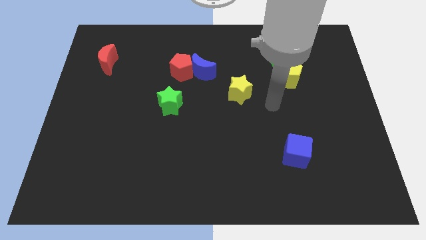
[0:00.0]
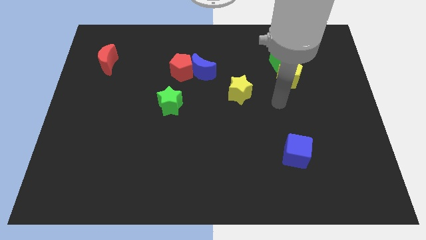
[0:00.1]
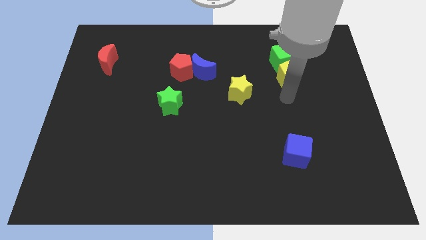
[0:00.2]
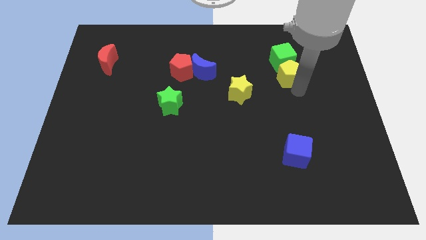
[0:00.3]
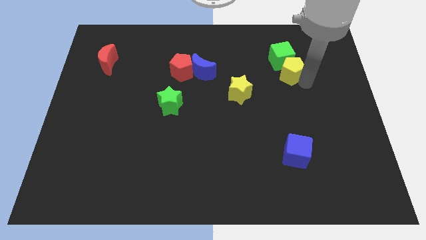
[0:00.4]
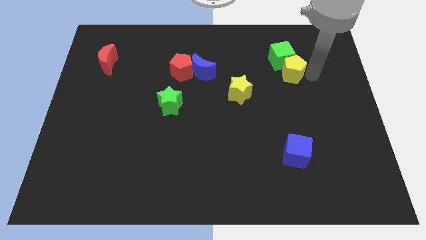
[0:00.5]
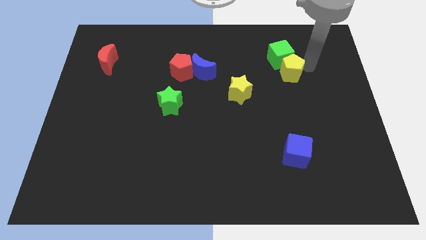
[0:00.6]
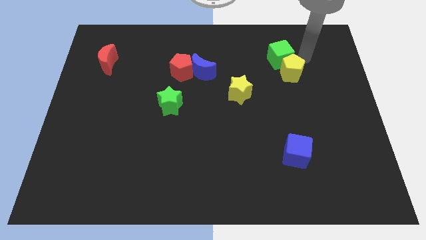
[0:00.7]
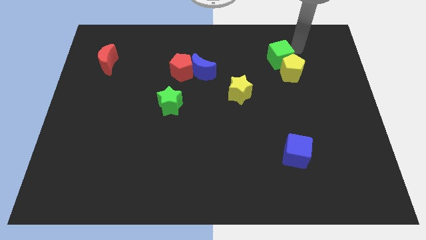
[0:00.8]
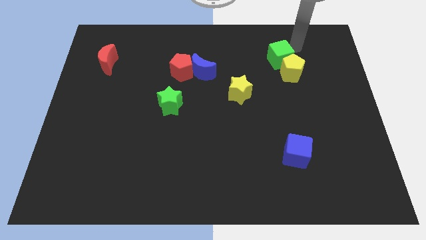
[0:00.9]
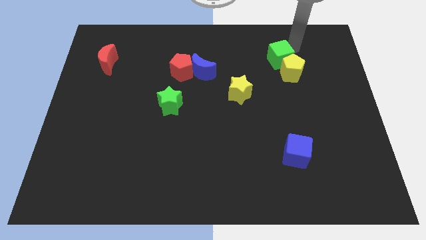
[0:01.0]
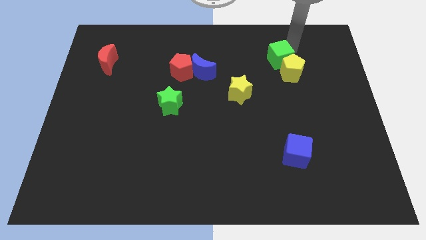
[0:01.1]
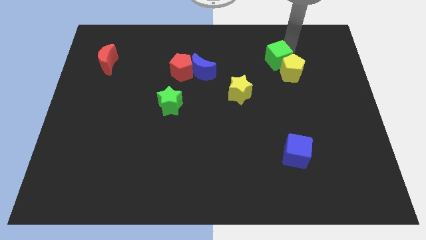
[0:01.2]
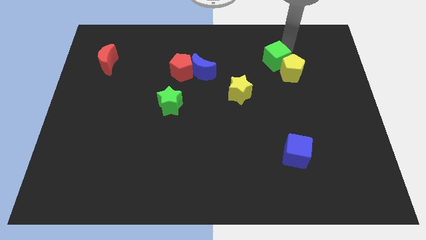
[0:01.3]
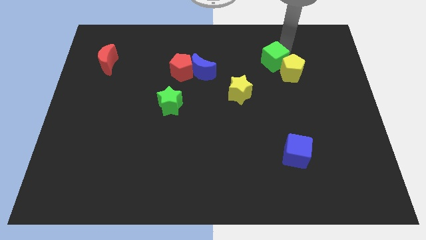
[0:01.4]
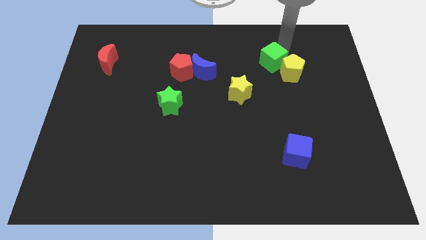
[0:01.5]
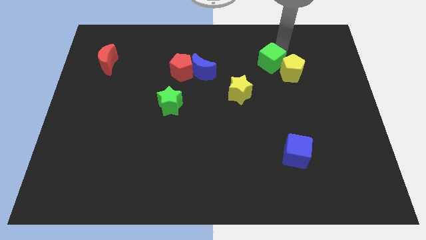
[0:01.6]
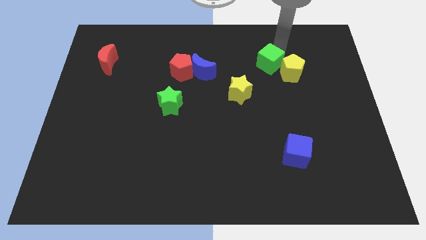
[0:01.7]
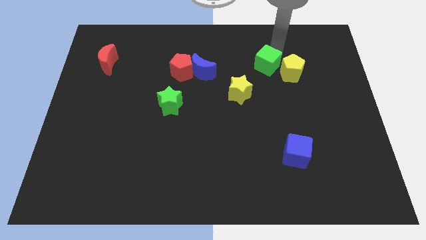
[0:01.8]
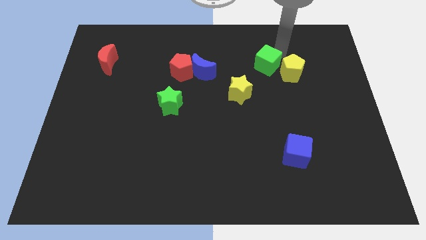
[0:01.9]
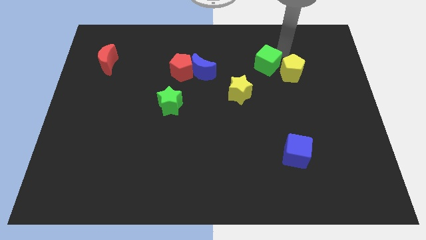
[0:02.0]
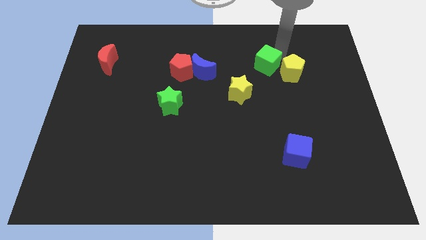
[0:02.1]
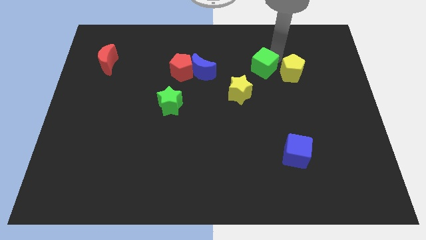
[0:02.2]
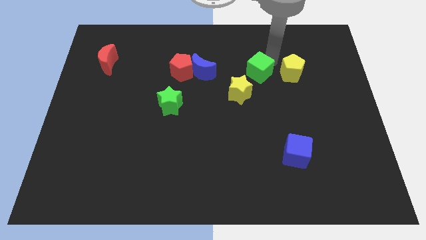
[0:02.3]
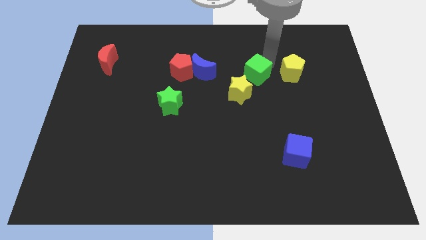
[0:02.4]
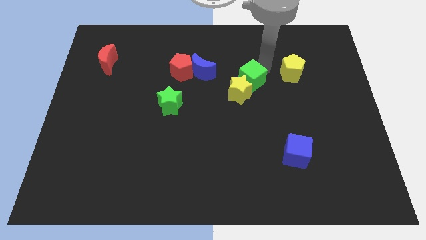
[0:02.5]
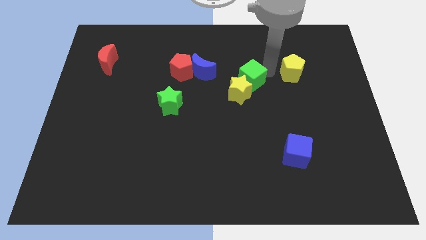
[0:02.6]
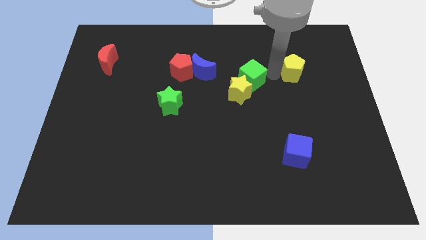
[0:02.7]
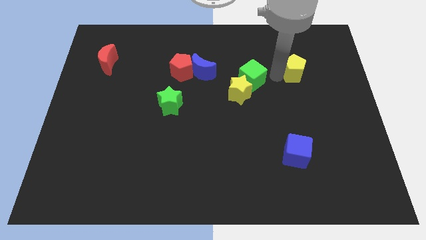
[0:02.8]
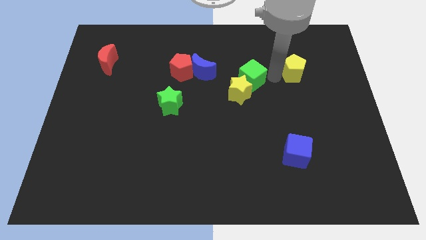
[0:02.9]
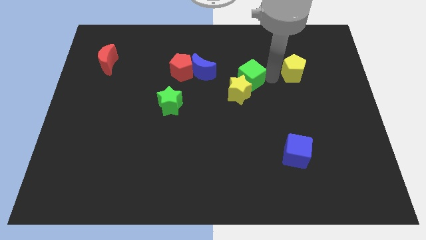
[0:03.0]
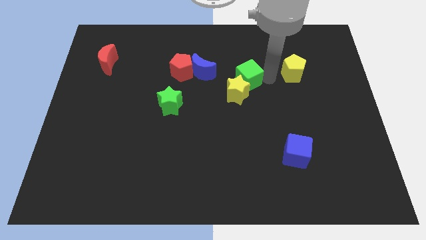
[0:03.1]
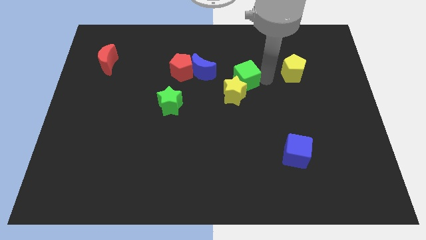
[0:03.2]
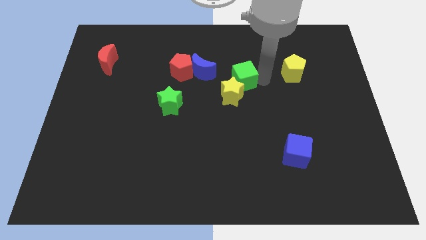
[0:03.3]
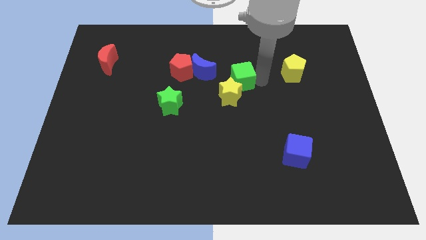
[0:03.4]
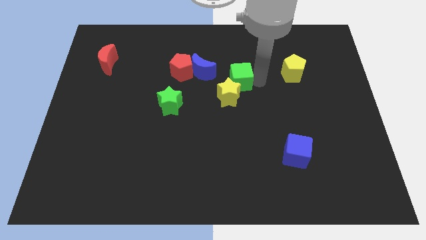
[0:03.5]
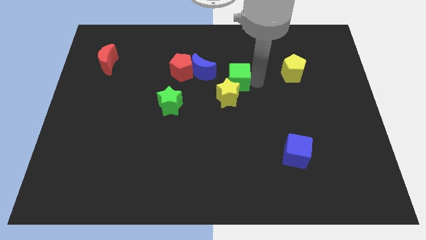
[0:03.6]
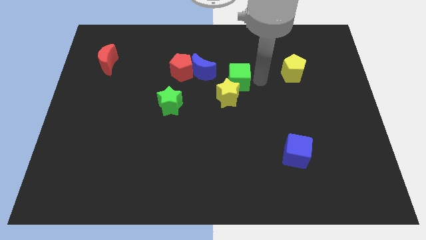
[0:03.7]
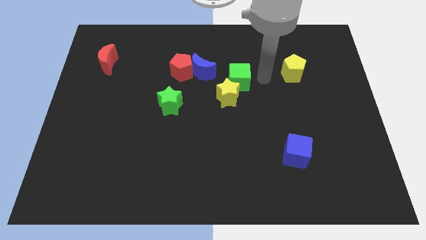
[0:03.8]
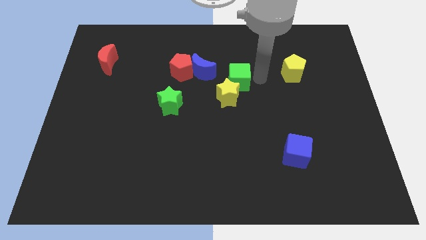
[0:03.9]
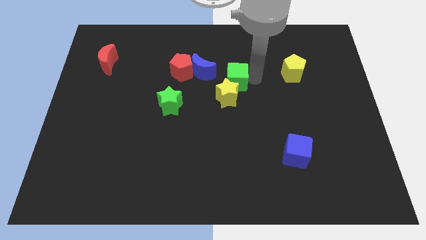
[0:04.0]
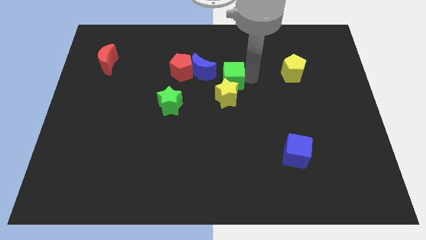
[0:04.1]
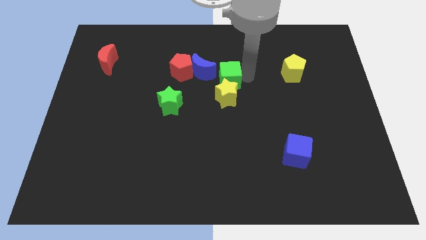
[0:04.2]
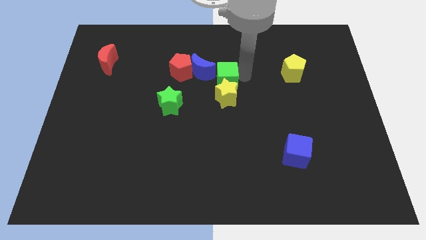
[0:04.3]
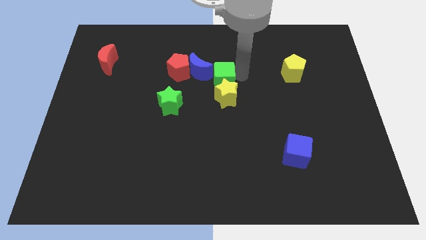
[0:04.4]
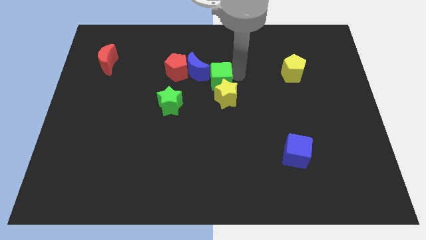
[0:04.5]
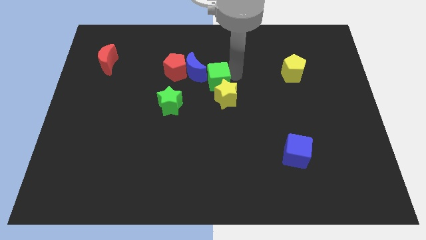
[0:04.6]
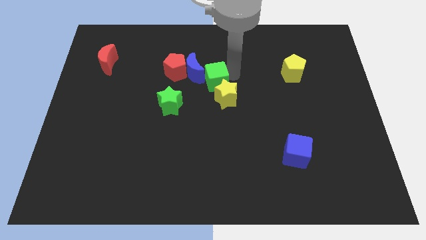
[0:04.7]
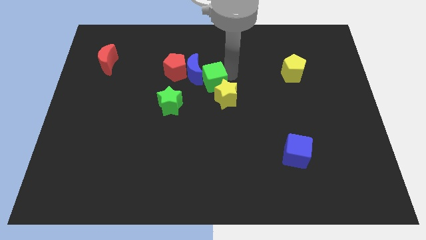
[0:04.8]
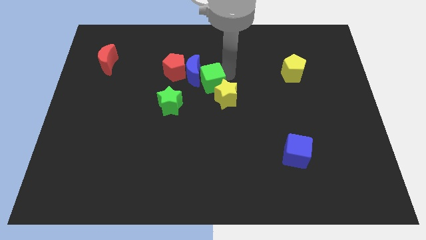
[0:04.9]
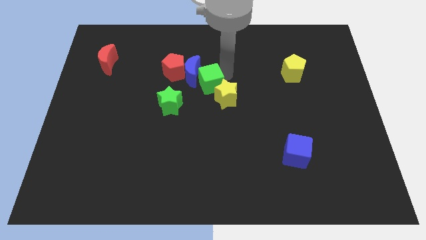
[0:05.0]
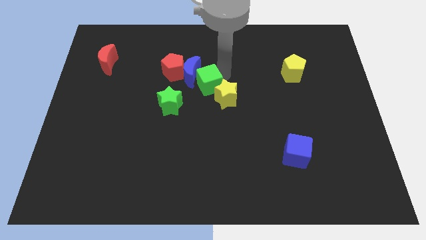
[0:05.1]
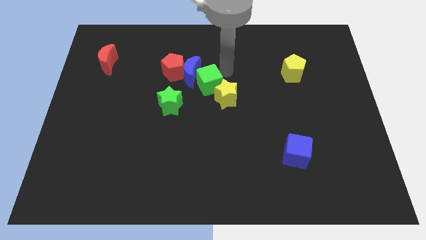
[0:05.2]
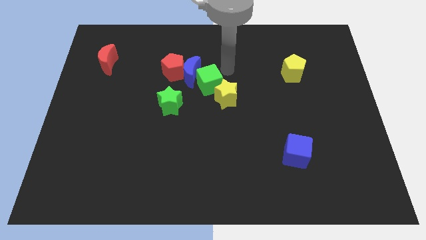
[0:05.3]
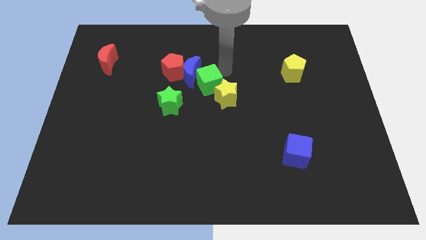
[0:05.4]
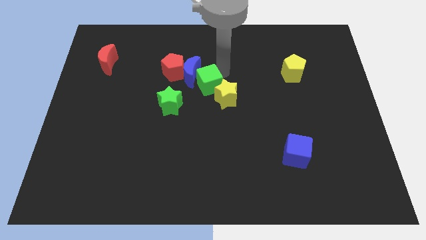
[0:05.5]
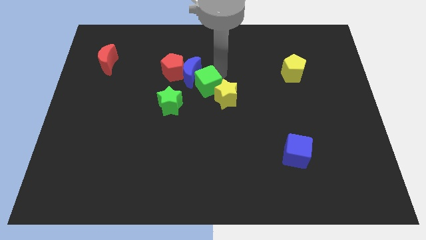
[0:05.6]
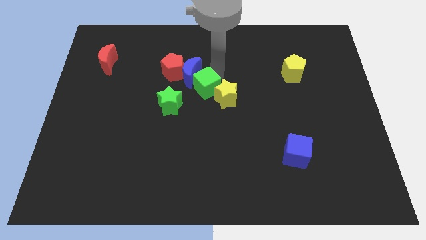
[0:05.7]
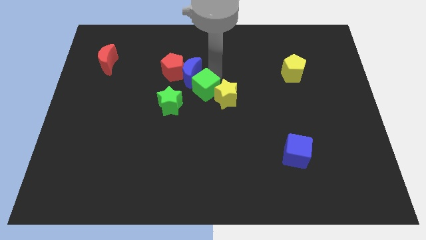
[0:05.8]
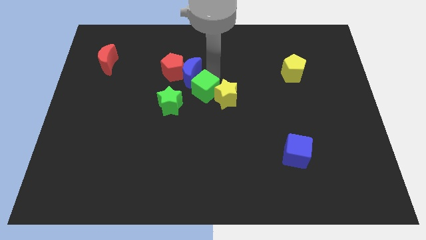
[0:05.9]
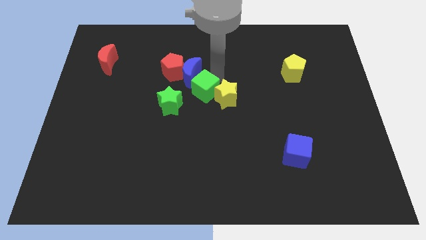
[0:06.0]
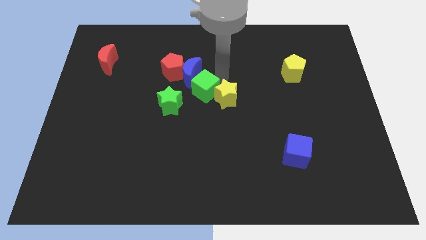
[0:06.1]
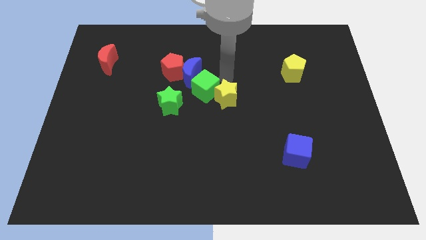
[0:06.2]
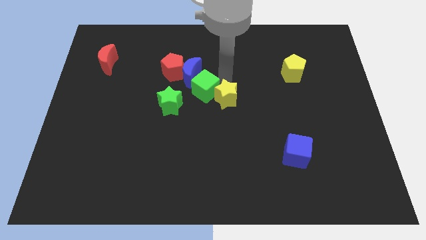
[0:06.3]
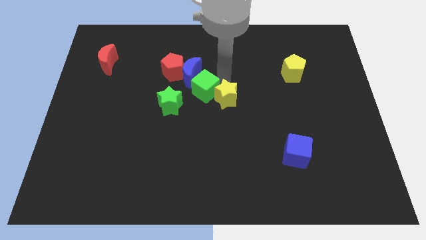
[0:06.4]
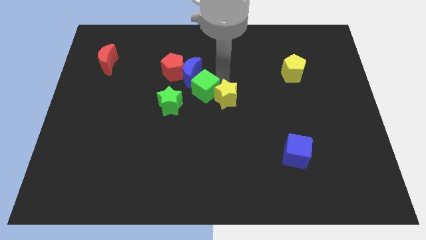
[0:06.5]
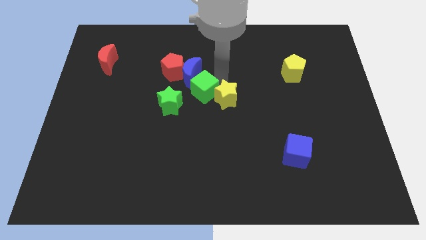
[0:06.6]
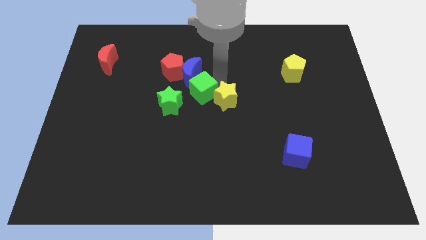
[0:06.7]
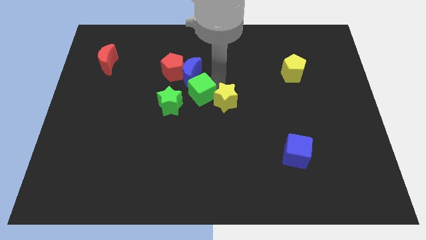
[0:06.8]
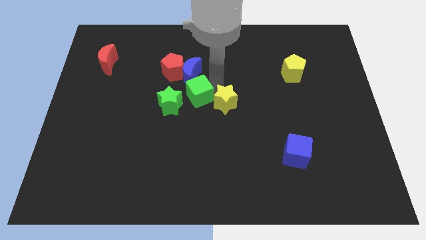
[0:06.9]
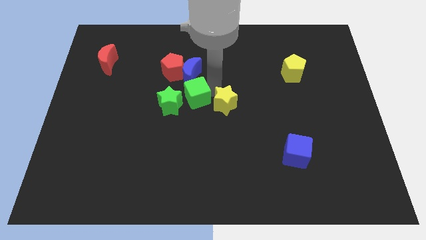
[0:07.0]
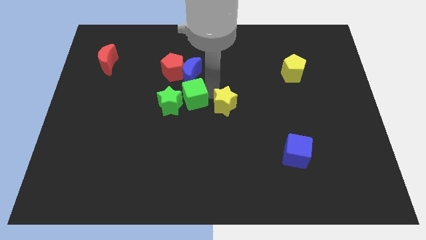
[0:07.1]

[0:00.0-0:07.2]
slide the green cube to the green star
